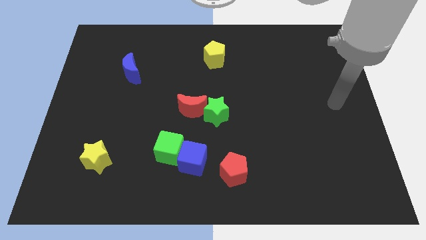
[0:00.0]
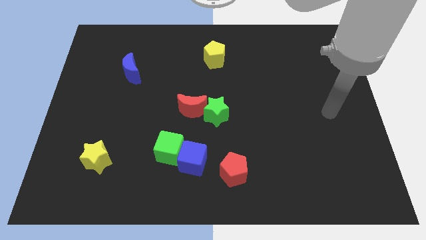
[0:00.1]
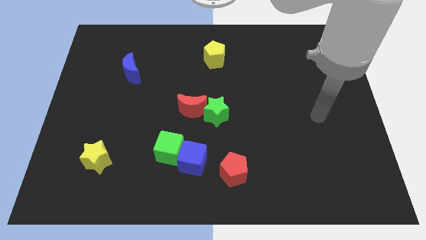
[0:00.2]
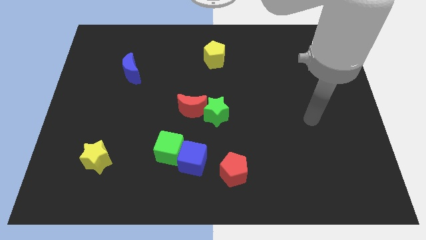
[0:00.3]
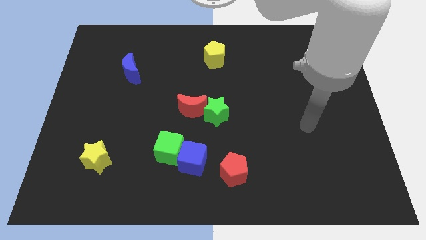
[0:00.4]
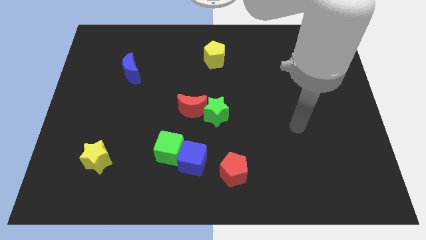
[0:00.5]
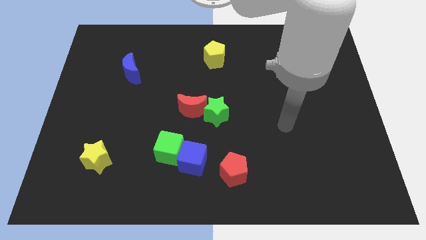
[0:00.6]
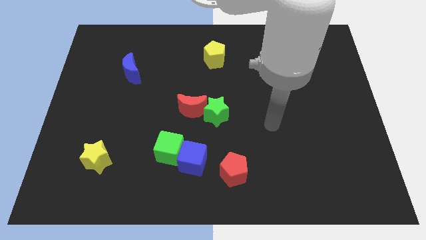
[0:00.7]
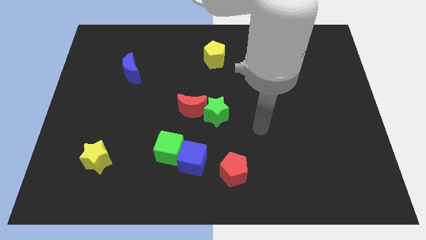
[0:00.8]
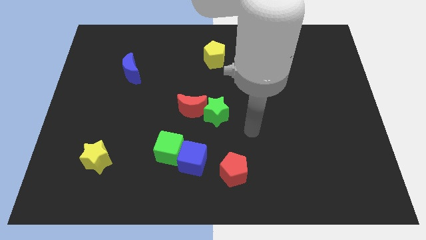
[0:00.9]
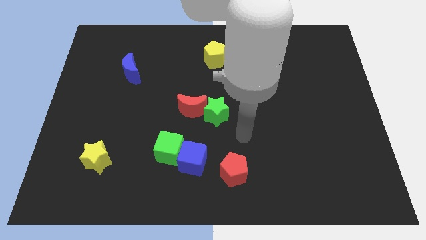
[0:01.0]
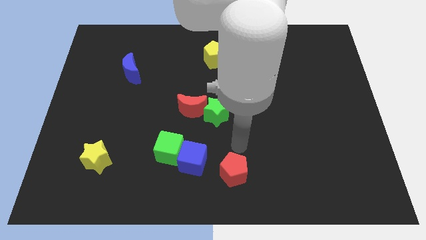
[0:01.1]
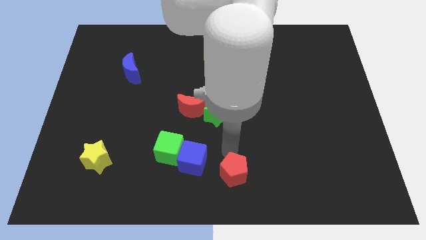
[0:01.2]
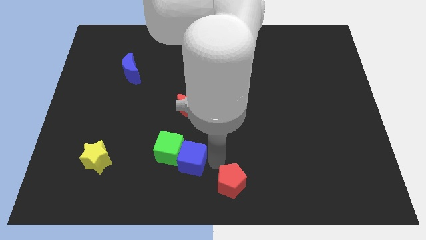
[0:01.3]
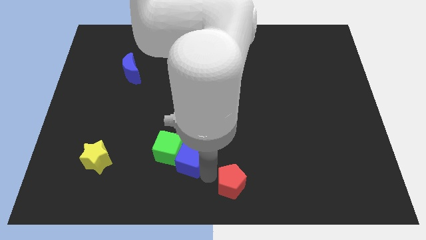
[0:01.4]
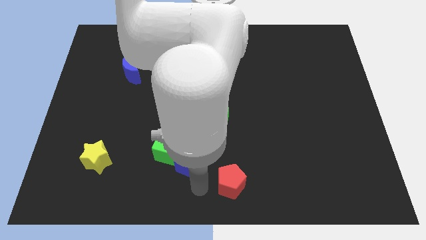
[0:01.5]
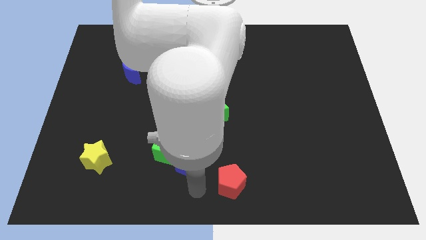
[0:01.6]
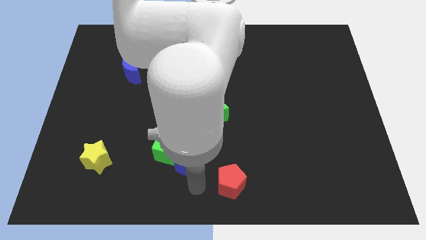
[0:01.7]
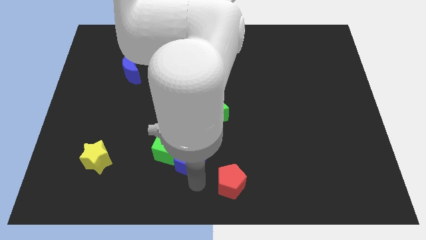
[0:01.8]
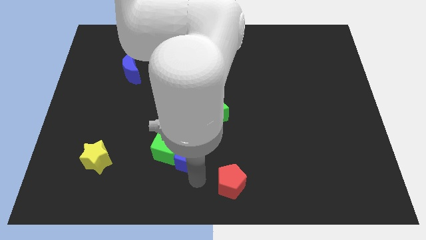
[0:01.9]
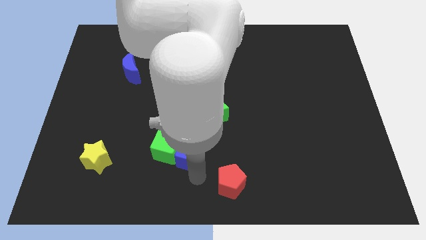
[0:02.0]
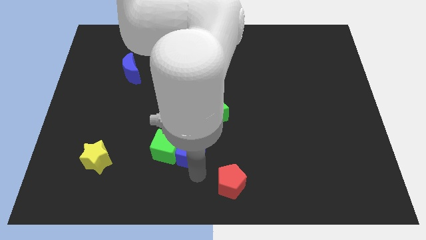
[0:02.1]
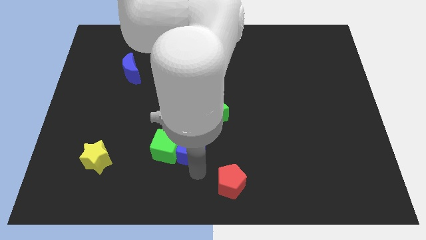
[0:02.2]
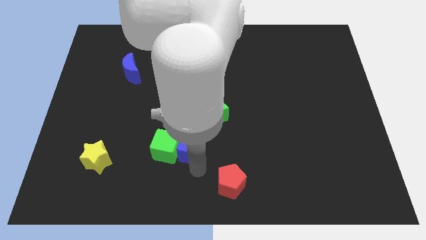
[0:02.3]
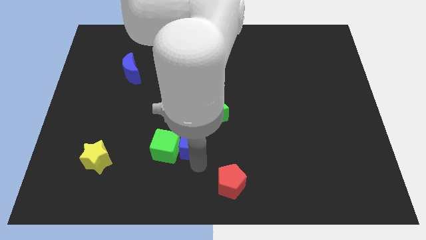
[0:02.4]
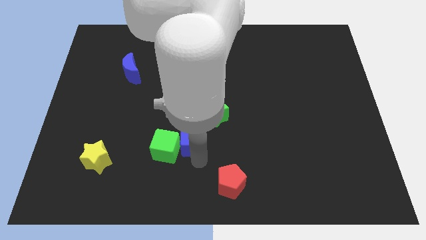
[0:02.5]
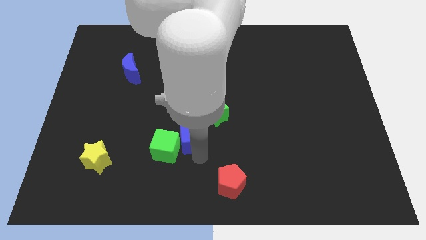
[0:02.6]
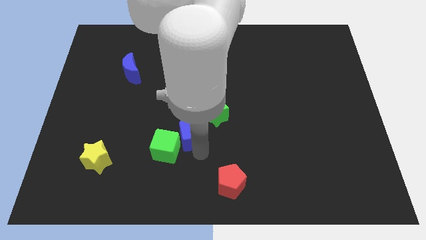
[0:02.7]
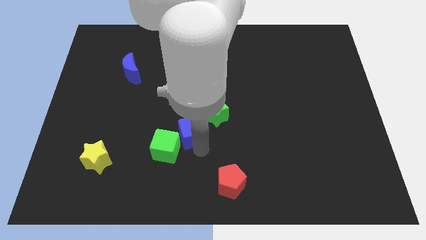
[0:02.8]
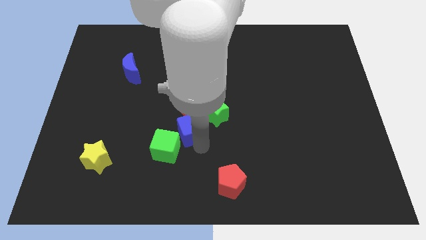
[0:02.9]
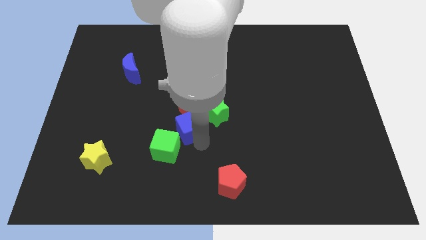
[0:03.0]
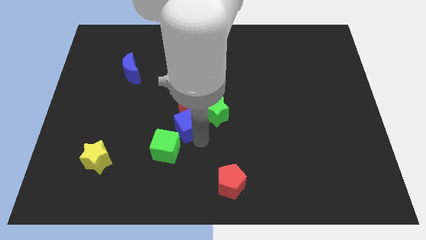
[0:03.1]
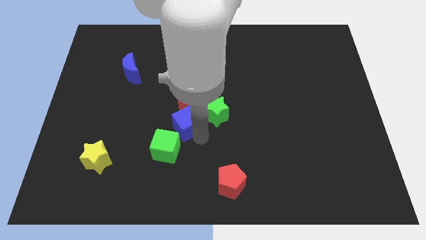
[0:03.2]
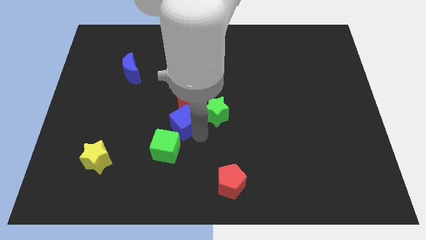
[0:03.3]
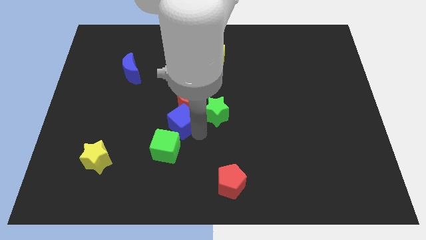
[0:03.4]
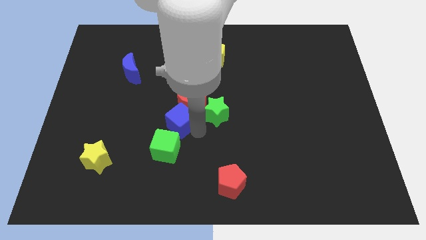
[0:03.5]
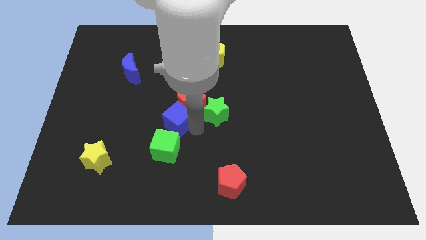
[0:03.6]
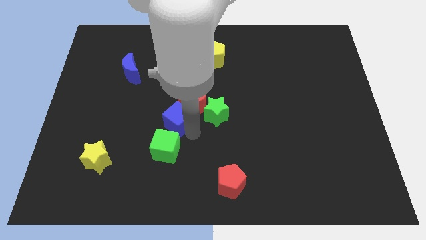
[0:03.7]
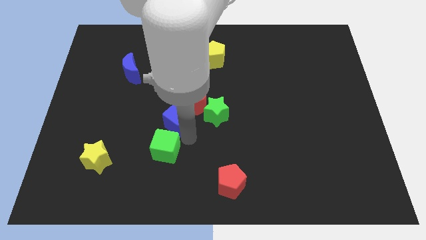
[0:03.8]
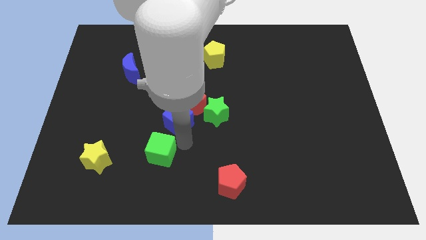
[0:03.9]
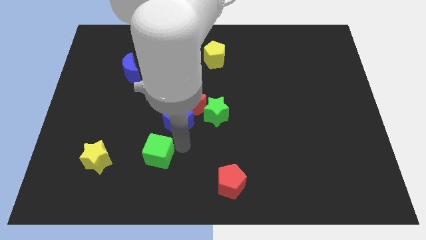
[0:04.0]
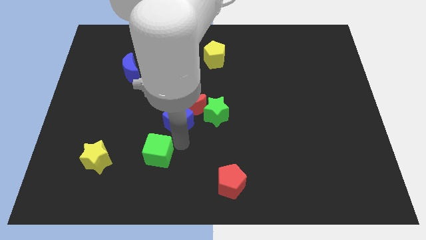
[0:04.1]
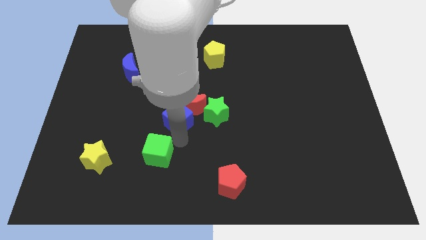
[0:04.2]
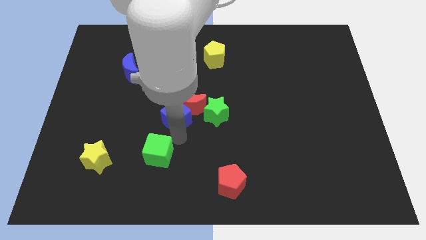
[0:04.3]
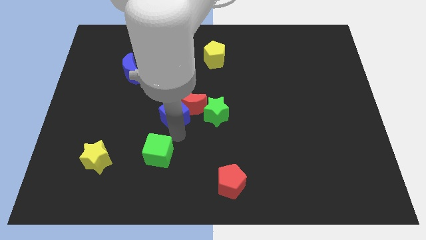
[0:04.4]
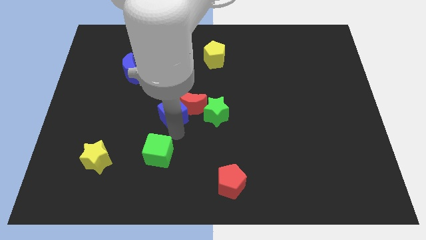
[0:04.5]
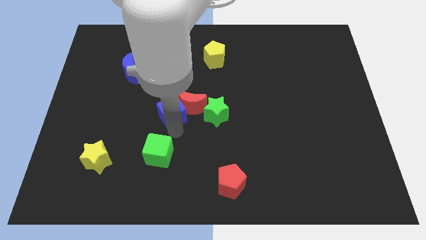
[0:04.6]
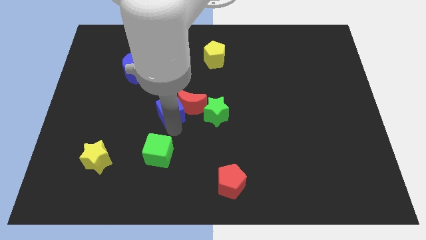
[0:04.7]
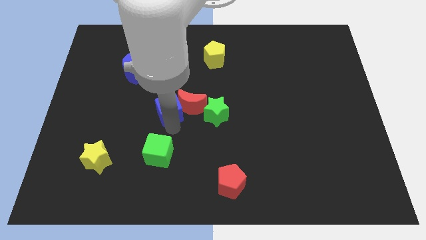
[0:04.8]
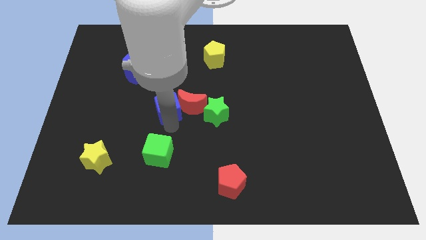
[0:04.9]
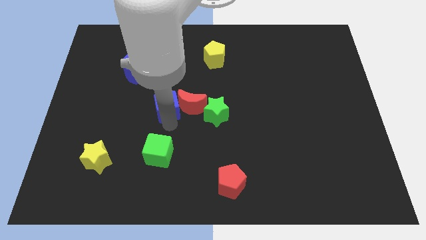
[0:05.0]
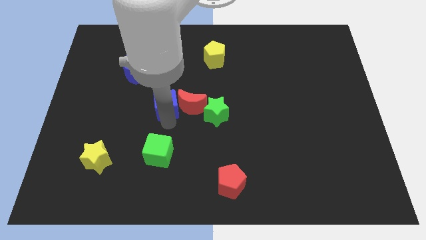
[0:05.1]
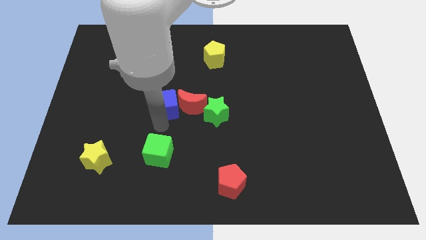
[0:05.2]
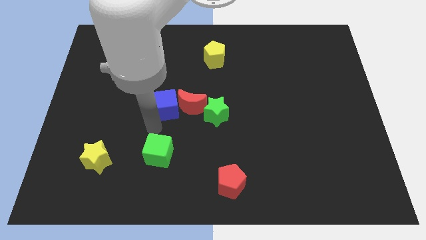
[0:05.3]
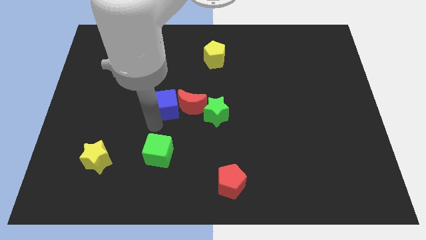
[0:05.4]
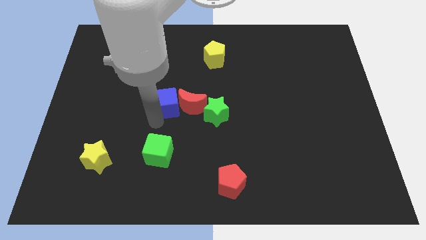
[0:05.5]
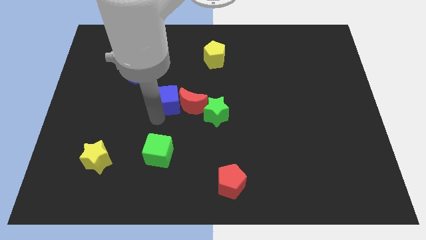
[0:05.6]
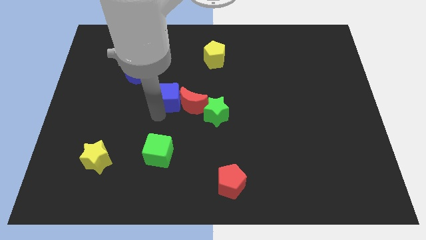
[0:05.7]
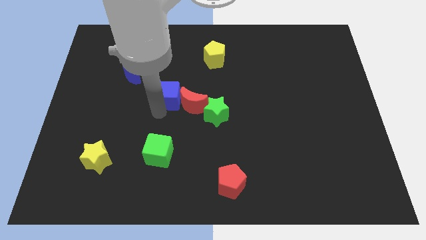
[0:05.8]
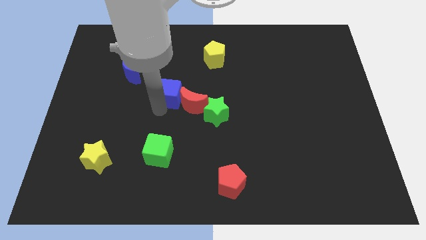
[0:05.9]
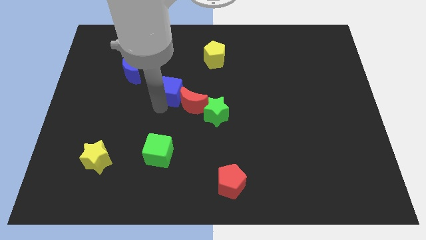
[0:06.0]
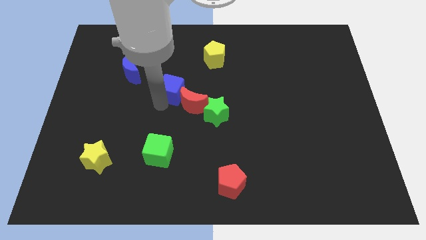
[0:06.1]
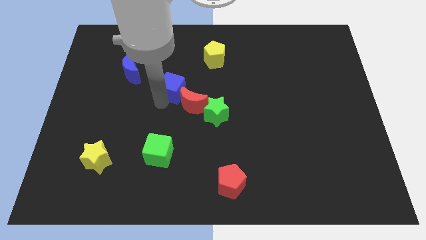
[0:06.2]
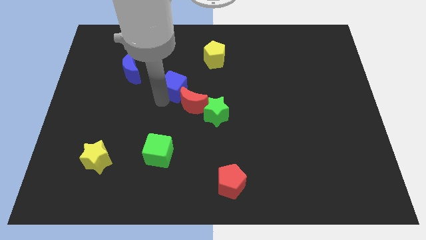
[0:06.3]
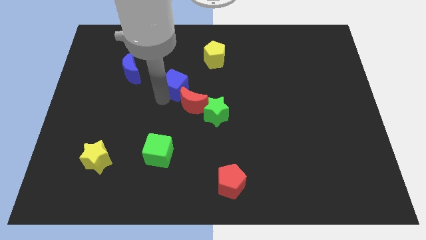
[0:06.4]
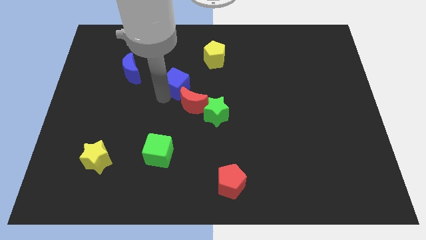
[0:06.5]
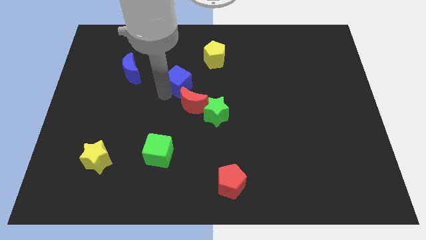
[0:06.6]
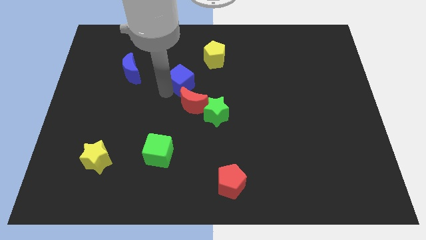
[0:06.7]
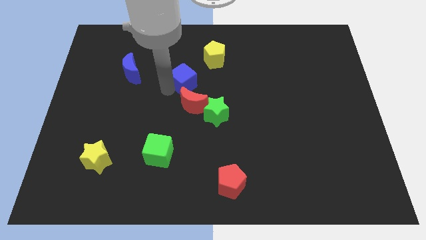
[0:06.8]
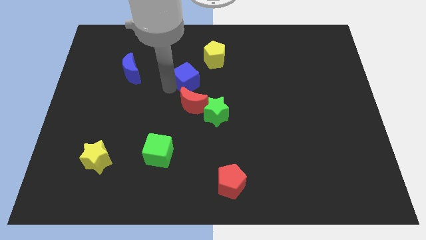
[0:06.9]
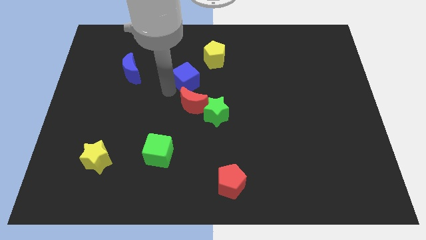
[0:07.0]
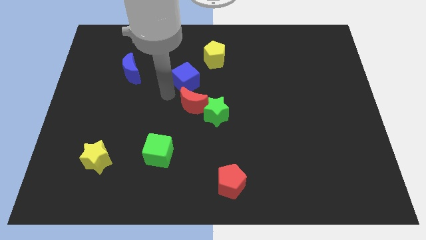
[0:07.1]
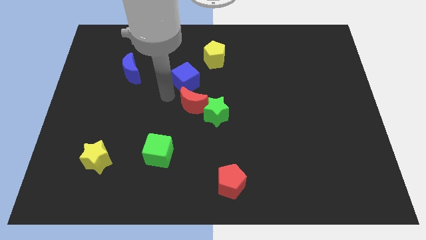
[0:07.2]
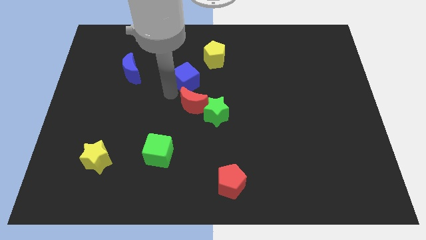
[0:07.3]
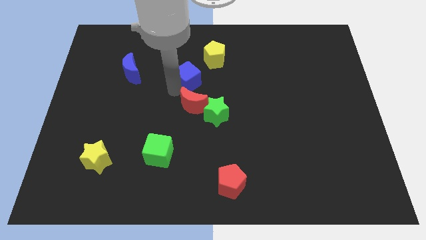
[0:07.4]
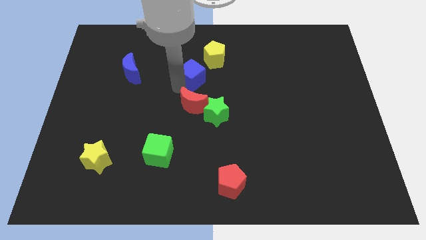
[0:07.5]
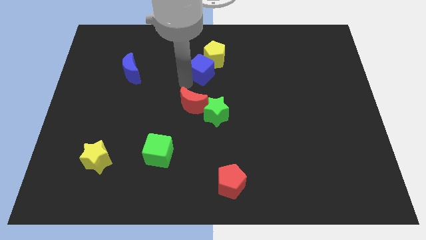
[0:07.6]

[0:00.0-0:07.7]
move the blue cube close to the yellow pentagon
